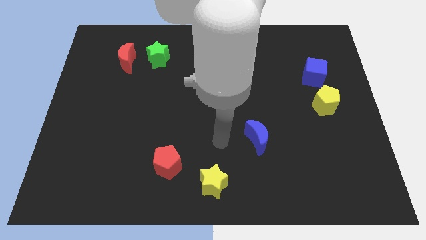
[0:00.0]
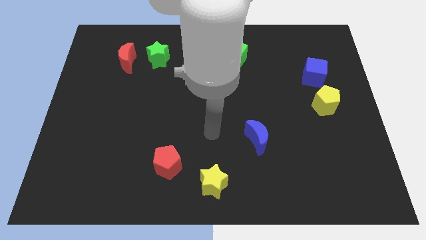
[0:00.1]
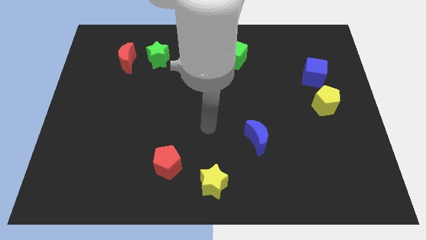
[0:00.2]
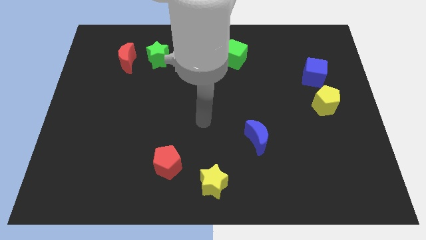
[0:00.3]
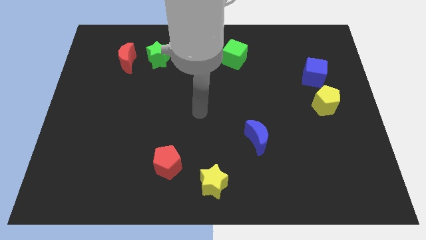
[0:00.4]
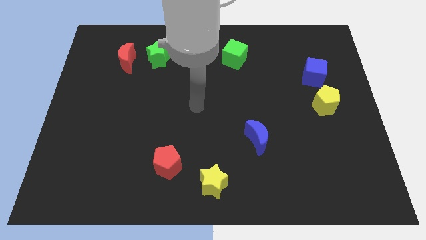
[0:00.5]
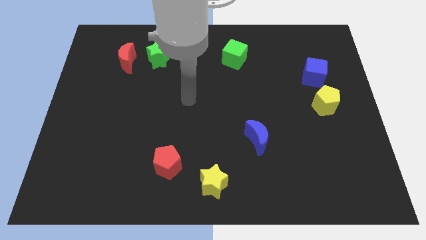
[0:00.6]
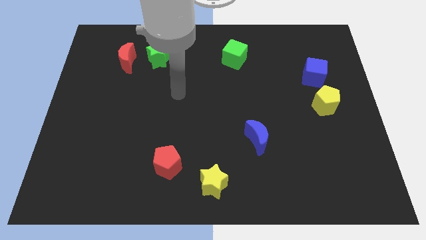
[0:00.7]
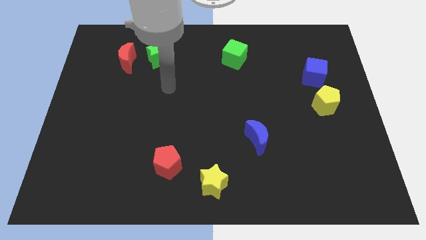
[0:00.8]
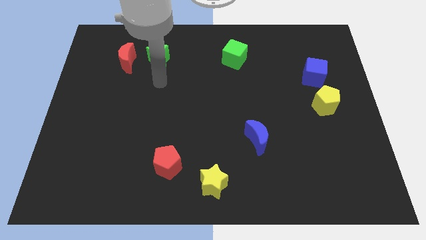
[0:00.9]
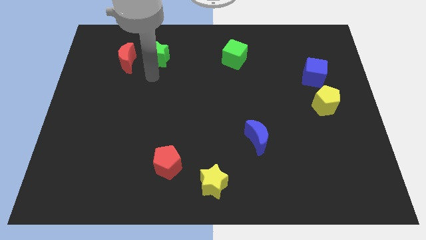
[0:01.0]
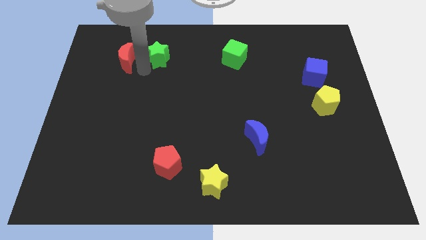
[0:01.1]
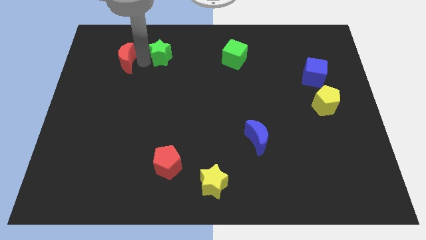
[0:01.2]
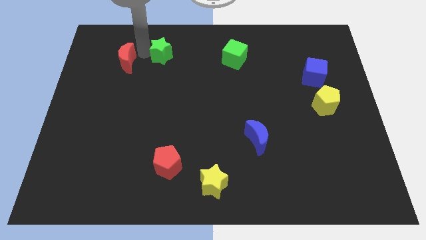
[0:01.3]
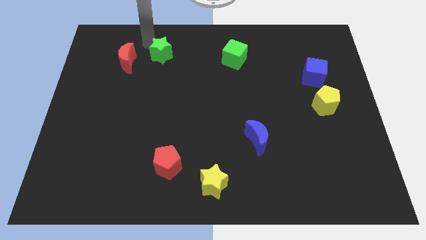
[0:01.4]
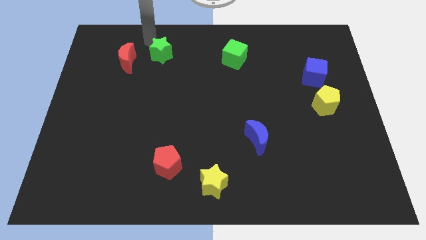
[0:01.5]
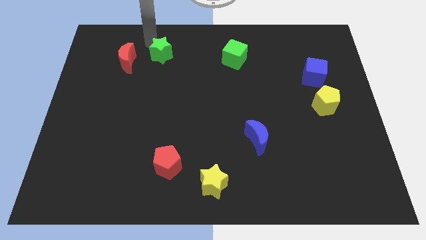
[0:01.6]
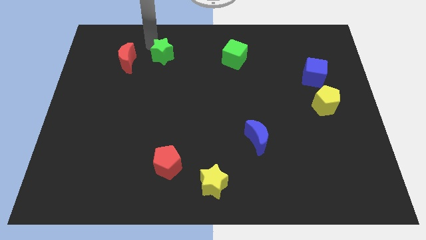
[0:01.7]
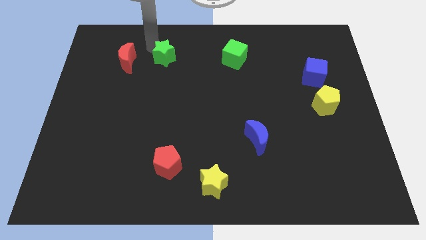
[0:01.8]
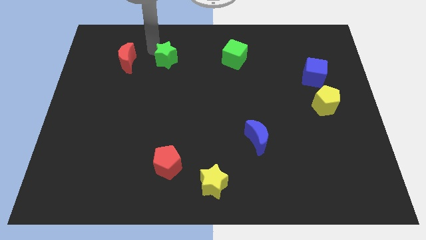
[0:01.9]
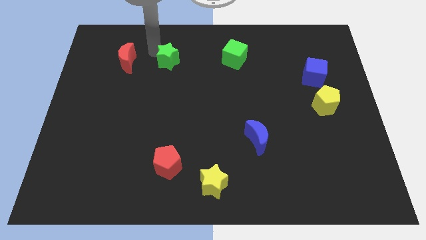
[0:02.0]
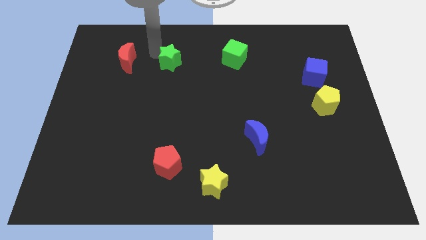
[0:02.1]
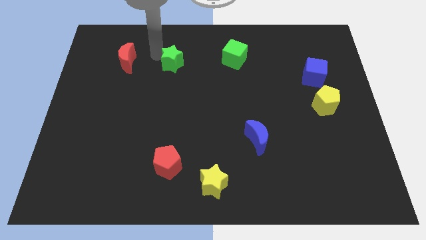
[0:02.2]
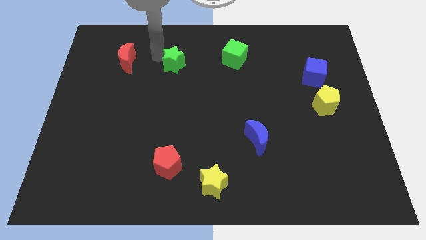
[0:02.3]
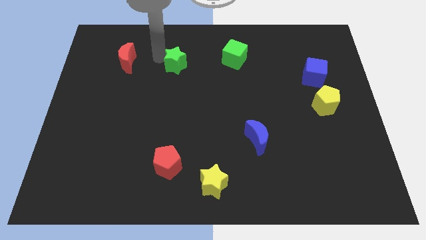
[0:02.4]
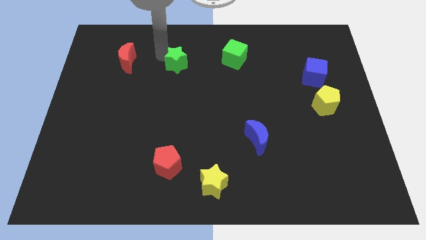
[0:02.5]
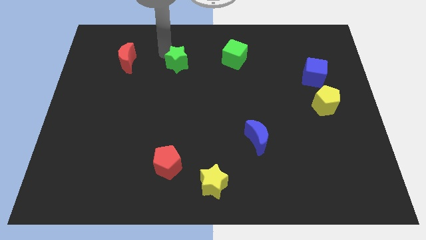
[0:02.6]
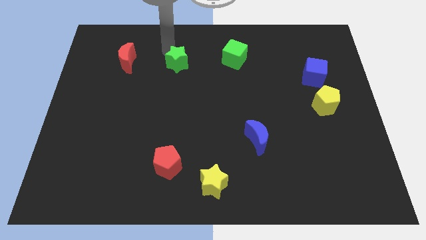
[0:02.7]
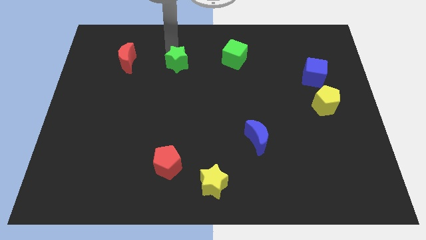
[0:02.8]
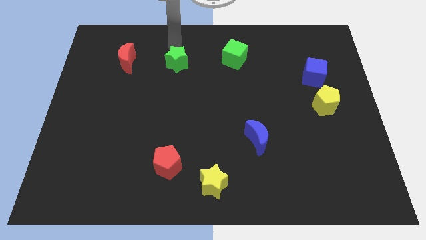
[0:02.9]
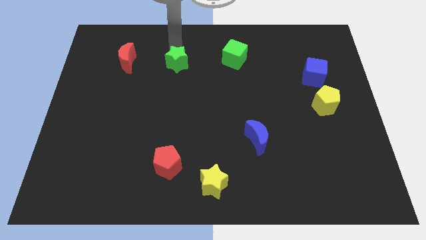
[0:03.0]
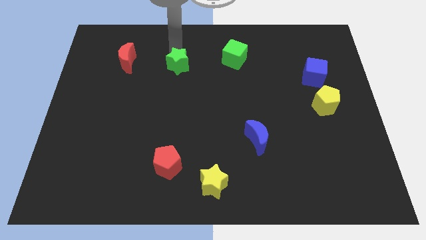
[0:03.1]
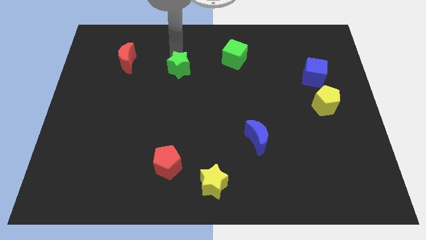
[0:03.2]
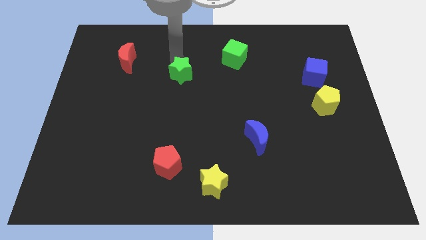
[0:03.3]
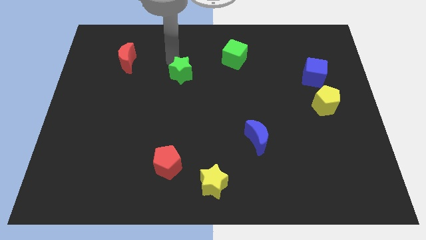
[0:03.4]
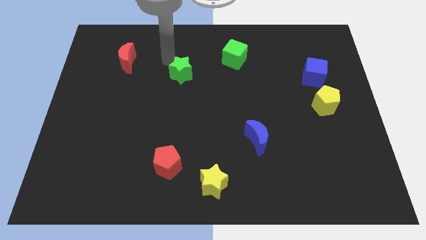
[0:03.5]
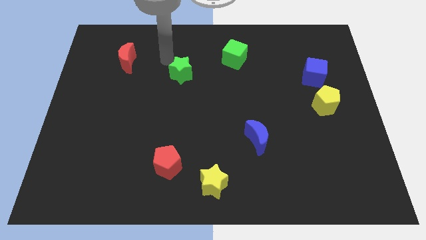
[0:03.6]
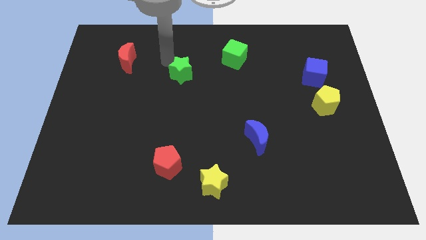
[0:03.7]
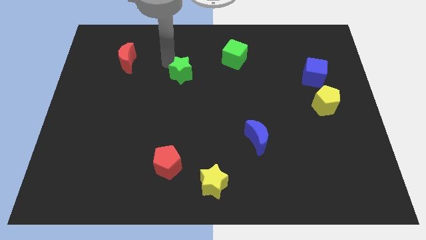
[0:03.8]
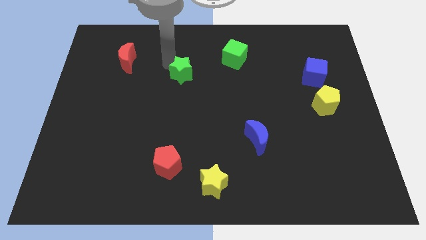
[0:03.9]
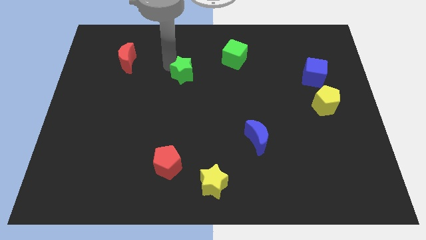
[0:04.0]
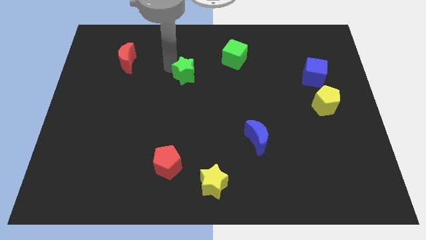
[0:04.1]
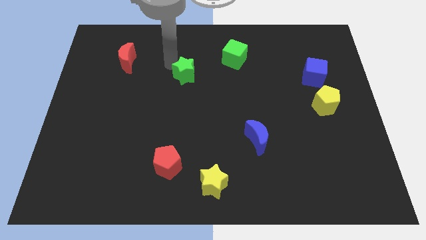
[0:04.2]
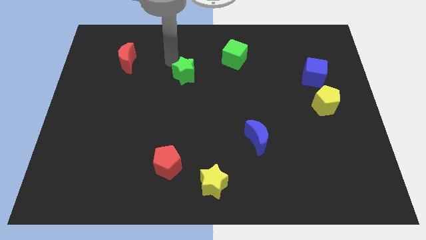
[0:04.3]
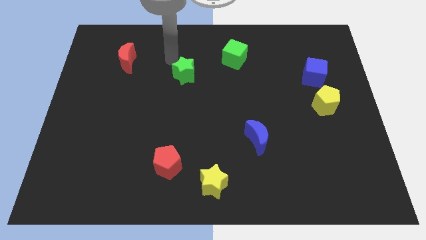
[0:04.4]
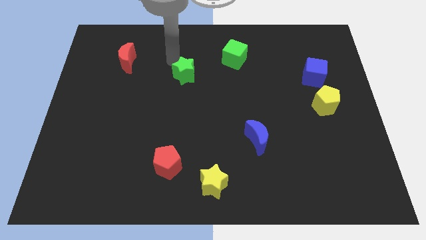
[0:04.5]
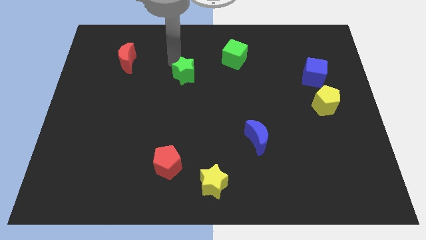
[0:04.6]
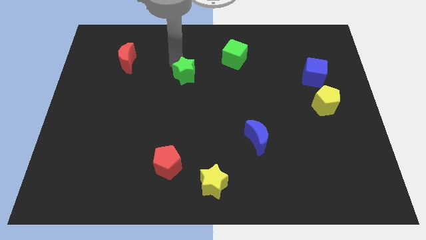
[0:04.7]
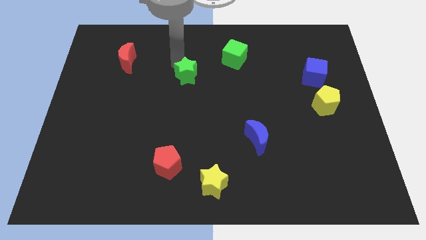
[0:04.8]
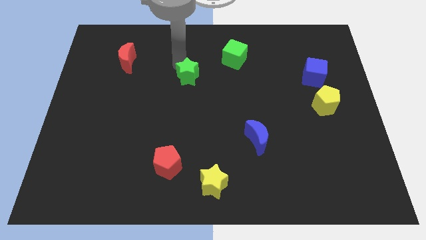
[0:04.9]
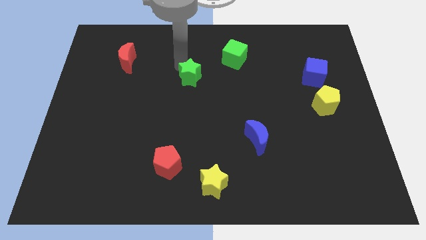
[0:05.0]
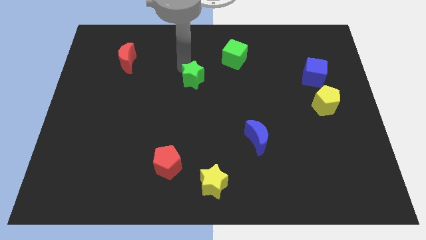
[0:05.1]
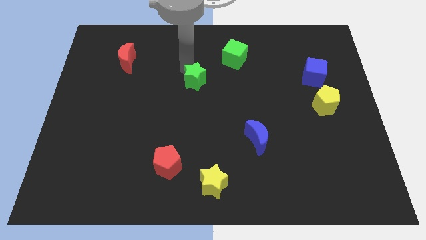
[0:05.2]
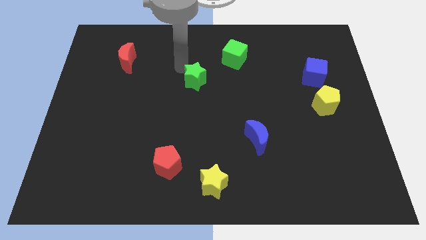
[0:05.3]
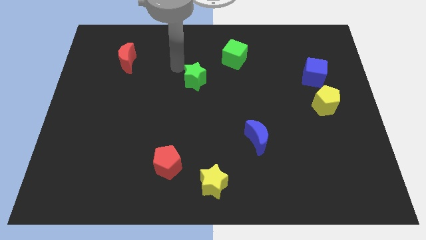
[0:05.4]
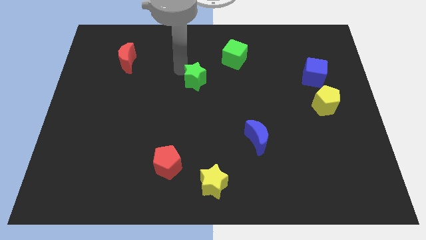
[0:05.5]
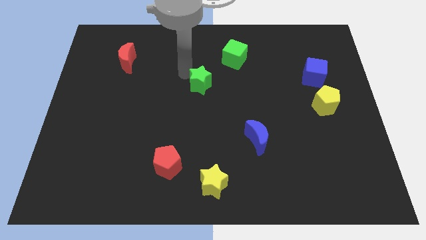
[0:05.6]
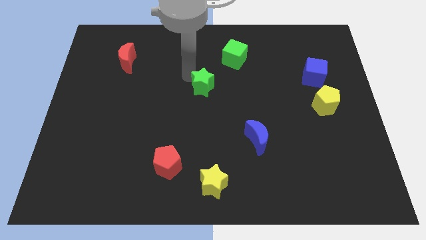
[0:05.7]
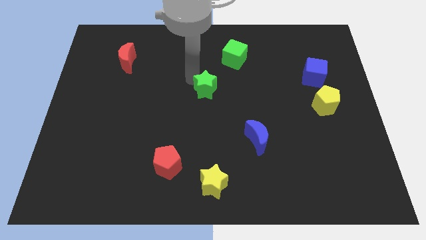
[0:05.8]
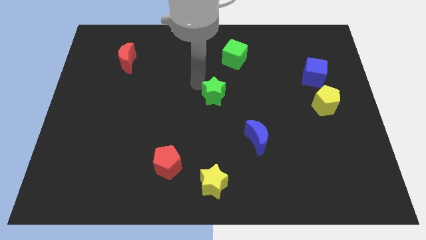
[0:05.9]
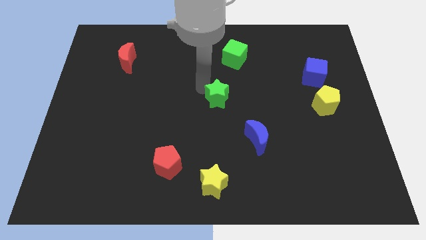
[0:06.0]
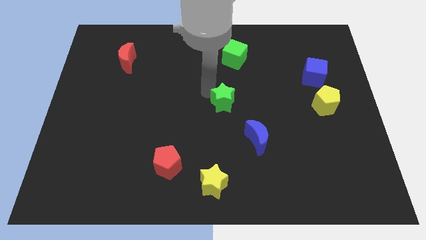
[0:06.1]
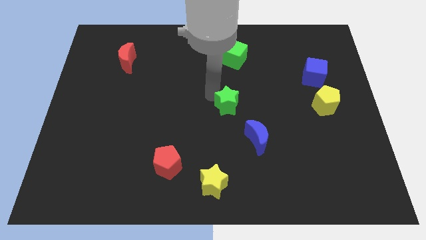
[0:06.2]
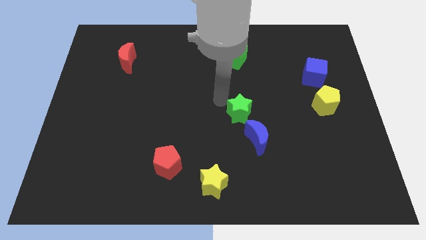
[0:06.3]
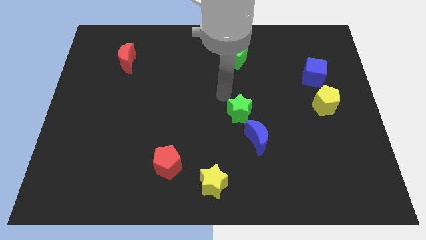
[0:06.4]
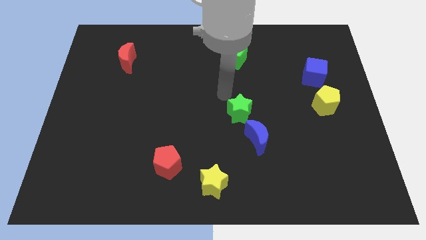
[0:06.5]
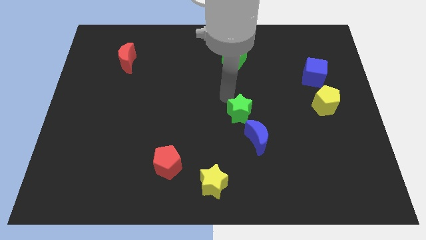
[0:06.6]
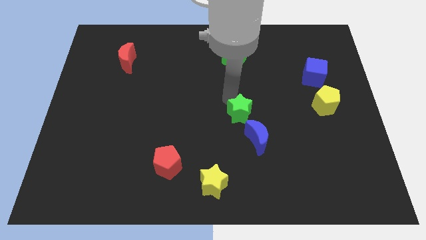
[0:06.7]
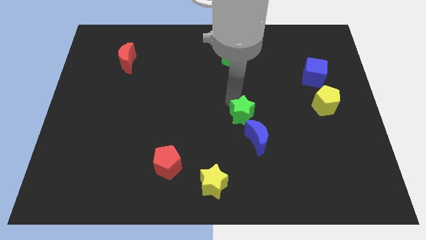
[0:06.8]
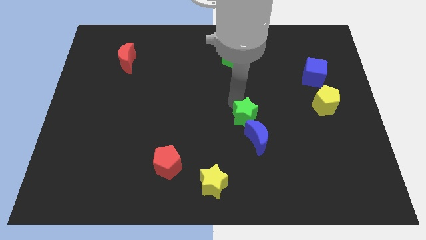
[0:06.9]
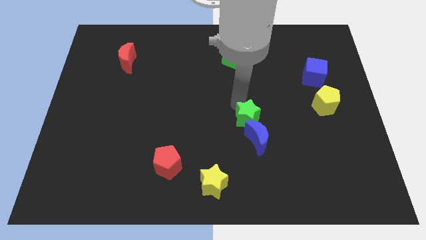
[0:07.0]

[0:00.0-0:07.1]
slide the green star towards the blue moon

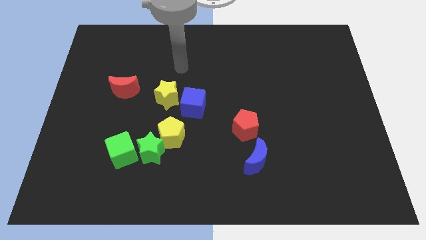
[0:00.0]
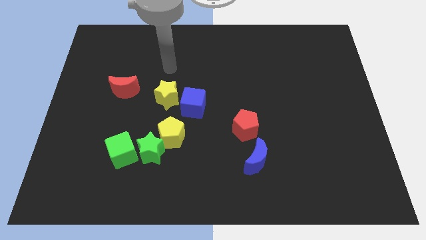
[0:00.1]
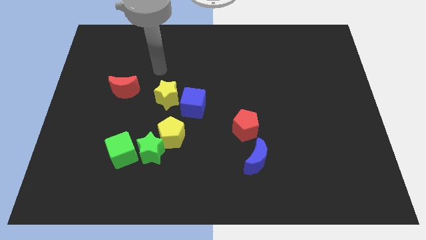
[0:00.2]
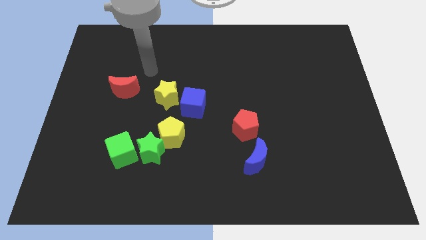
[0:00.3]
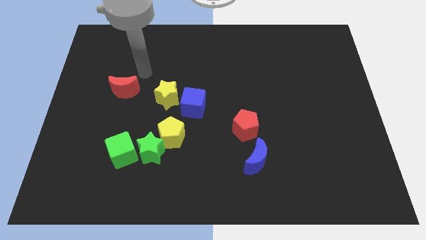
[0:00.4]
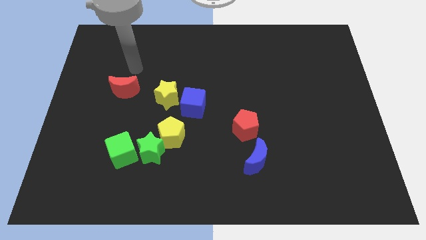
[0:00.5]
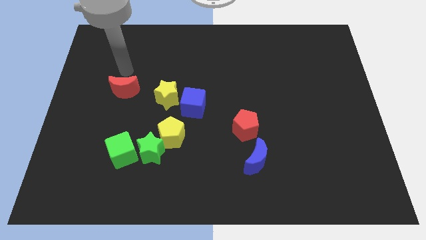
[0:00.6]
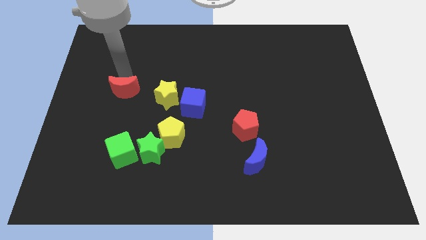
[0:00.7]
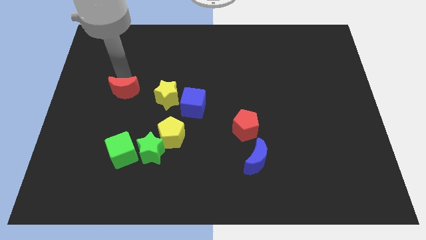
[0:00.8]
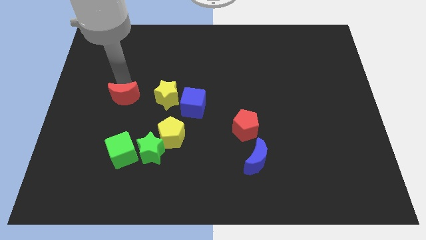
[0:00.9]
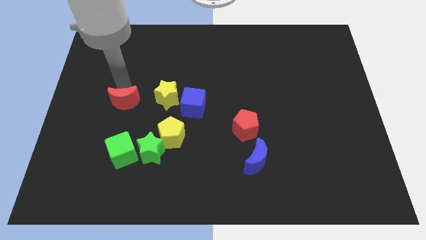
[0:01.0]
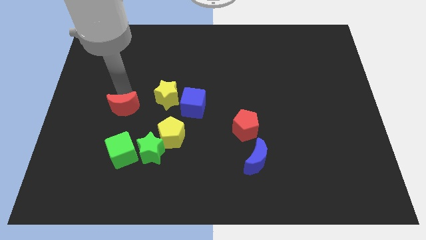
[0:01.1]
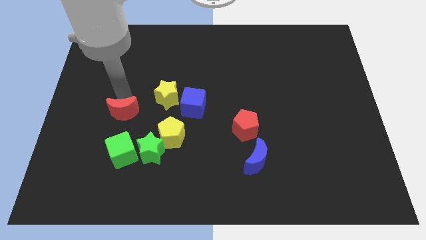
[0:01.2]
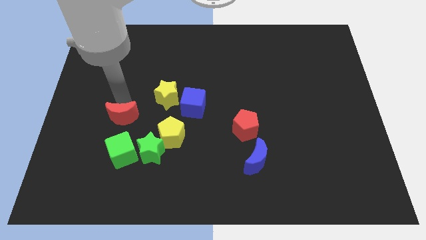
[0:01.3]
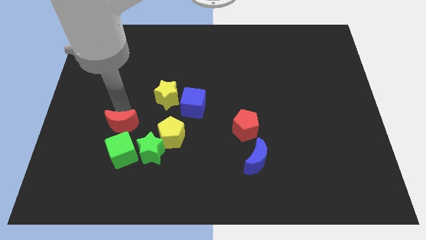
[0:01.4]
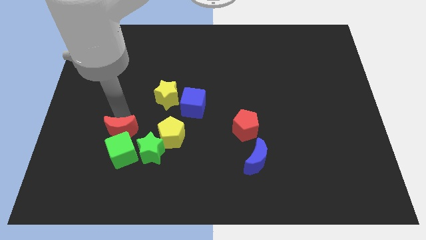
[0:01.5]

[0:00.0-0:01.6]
push the red moon next to the green cube
